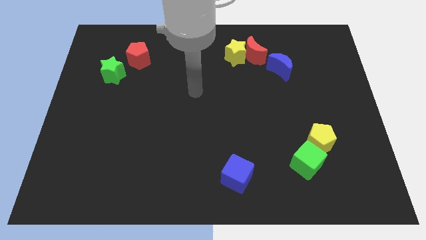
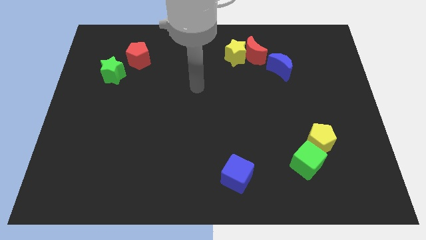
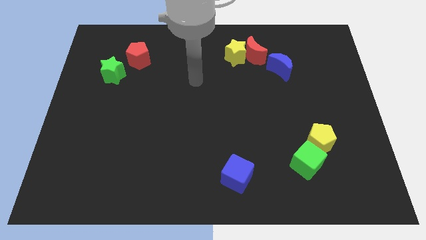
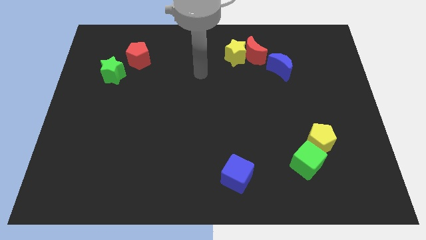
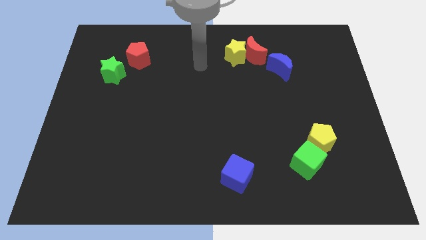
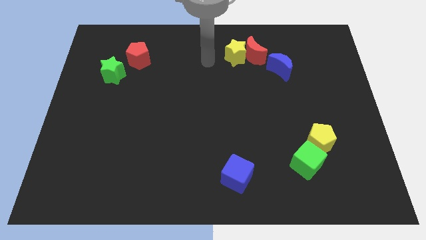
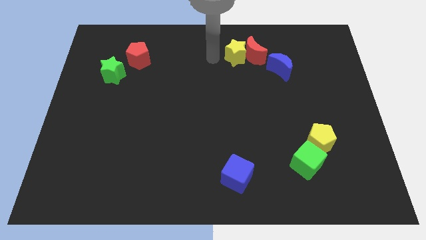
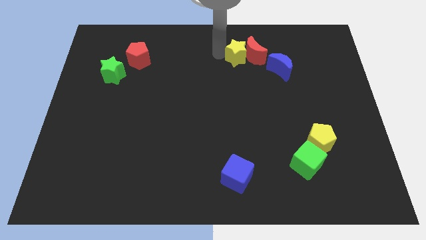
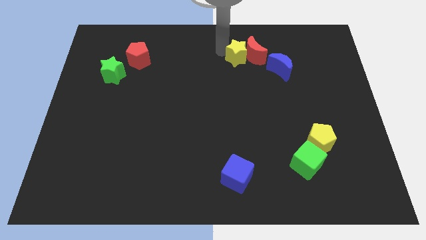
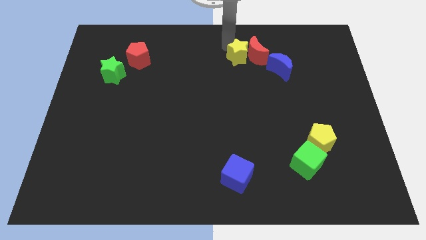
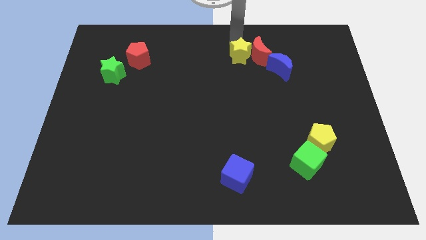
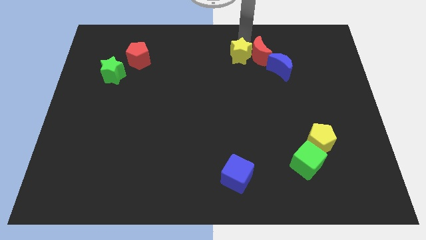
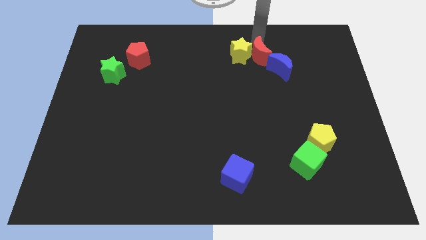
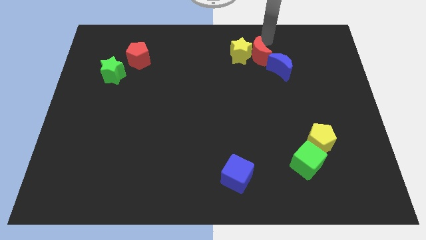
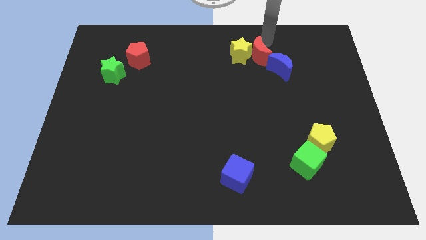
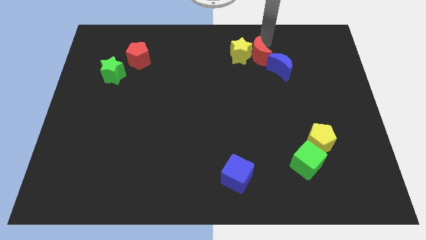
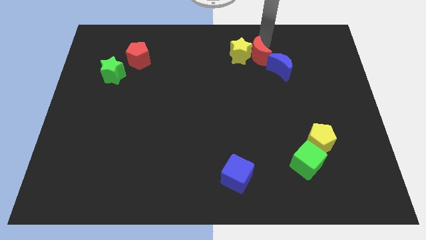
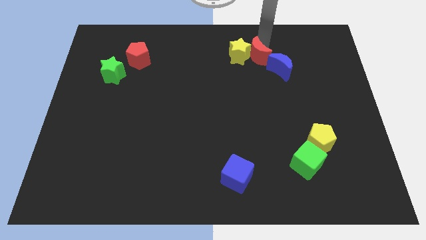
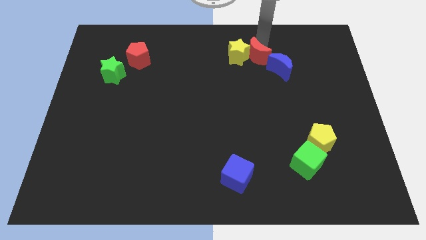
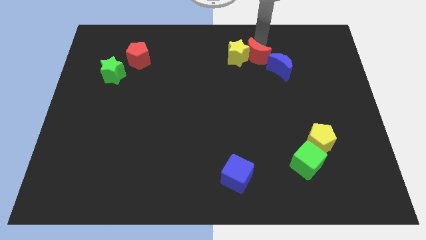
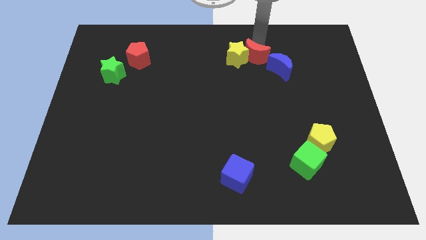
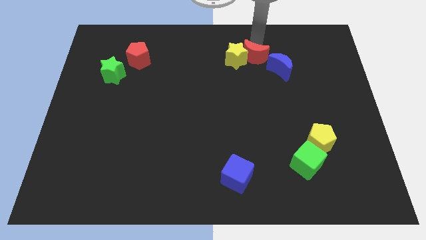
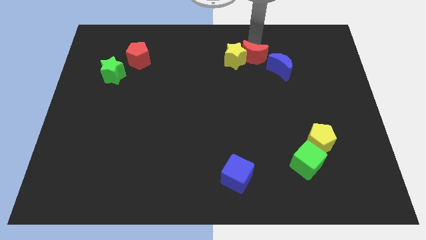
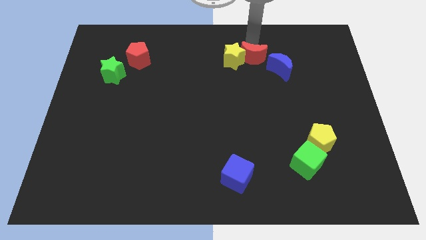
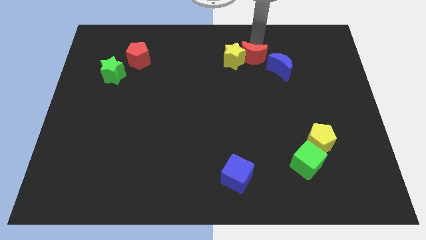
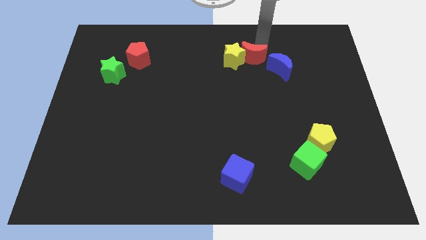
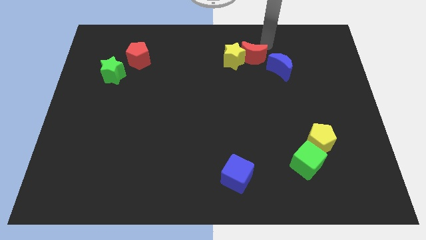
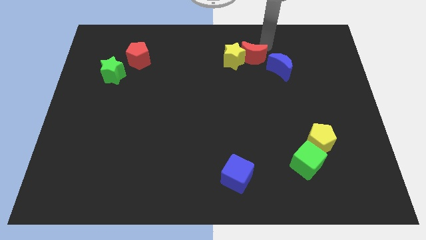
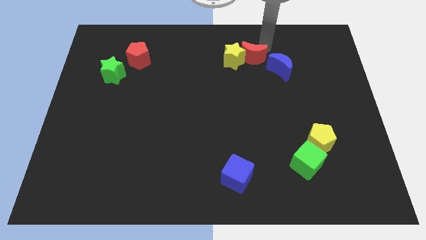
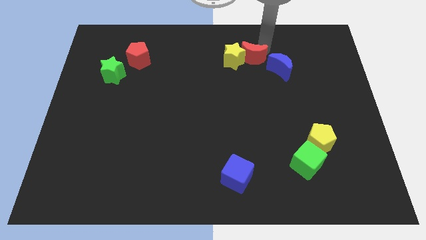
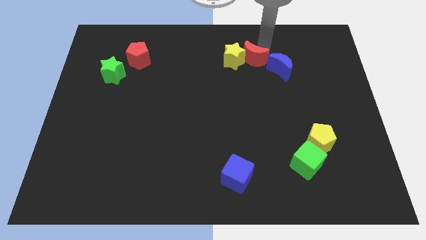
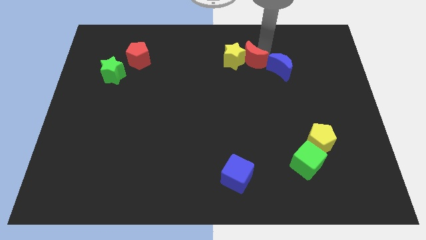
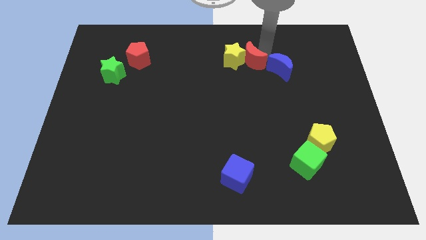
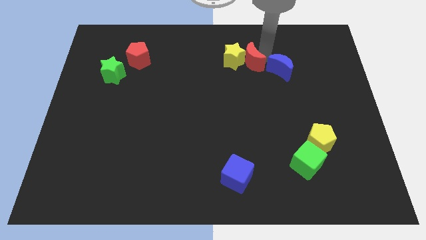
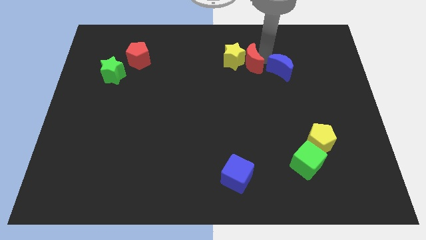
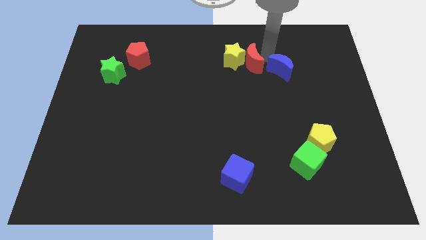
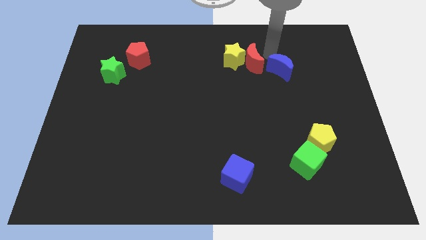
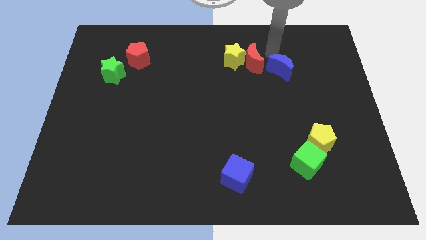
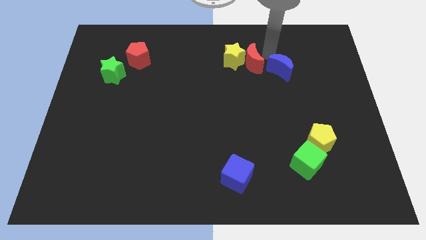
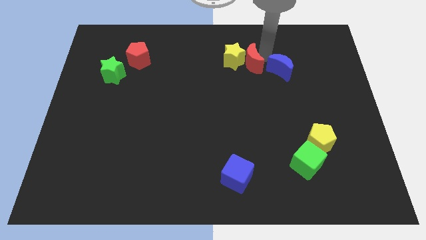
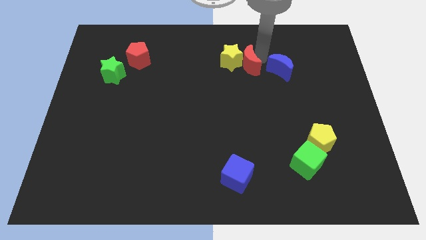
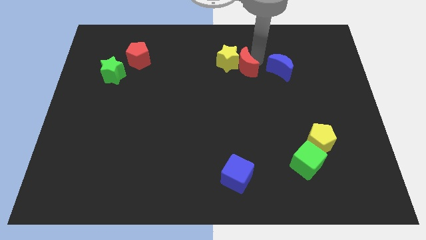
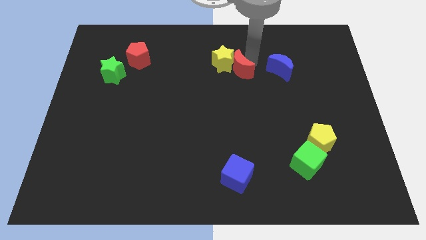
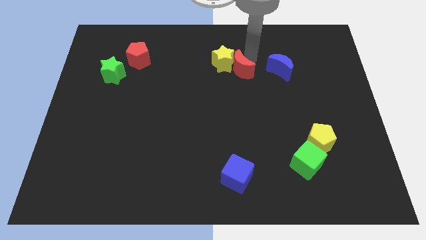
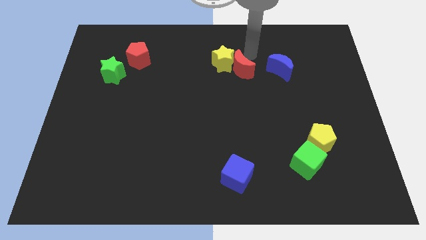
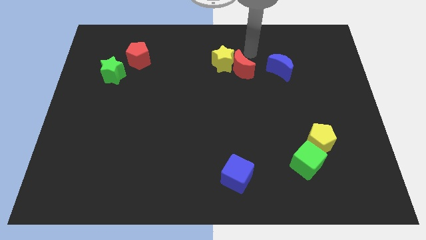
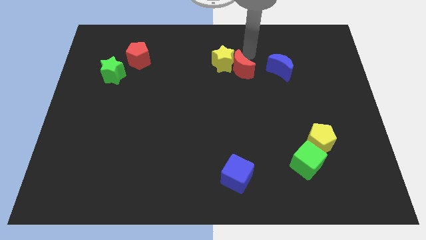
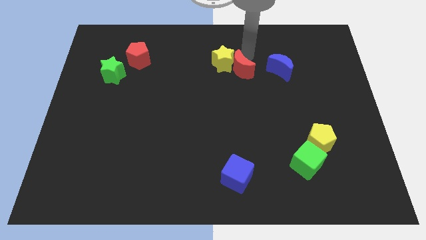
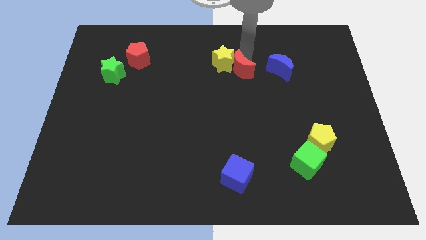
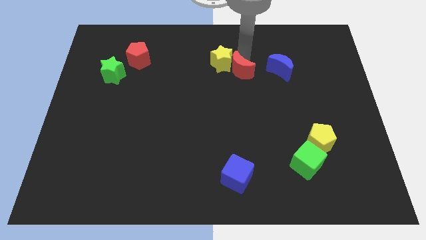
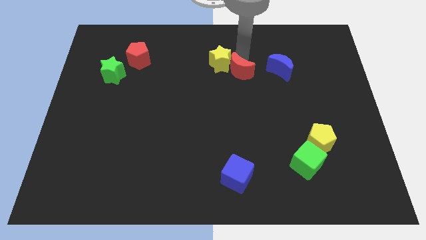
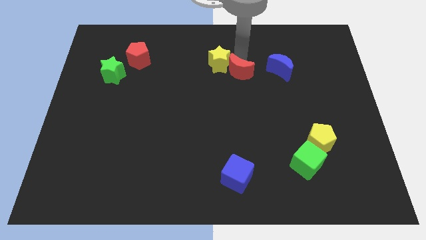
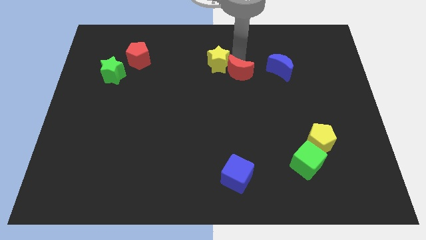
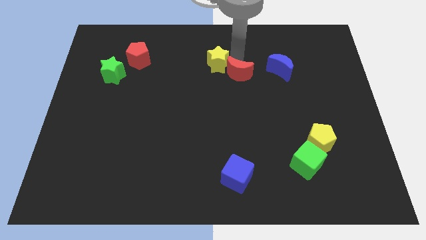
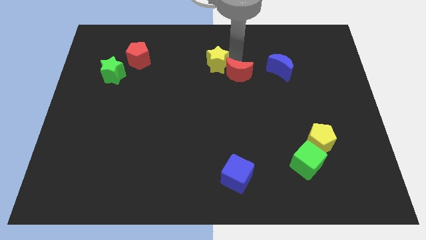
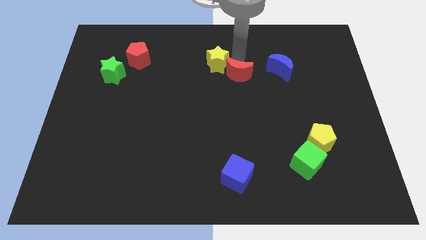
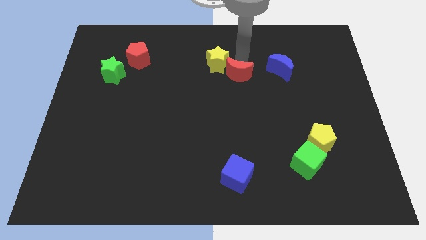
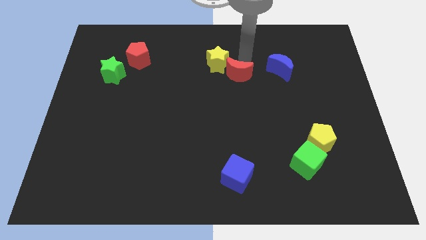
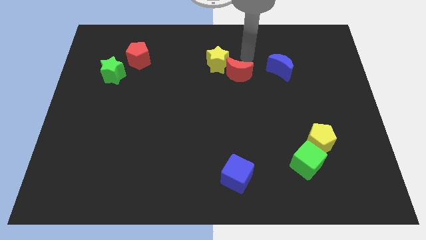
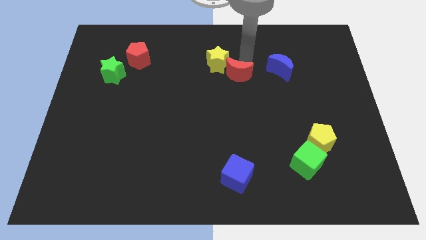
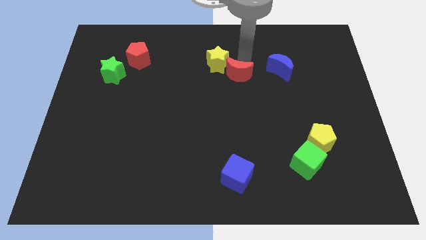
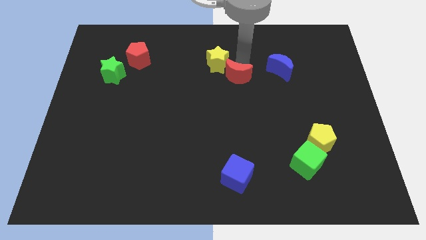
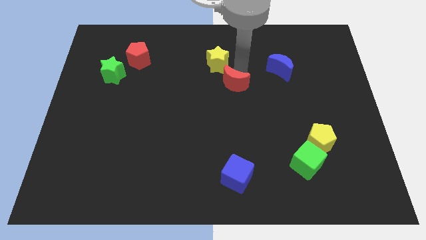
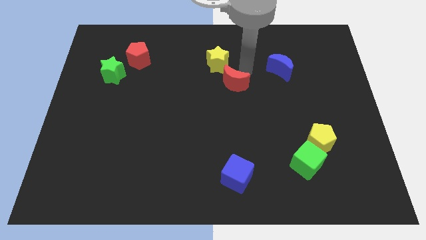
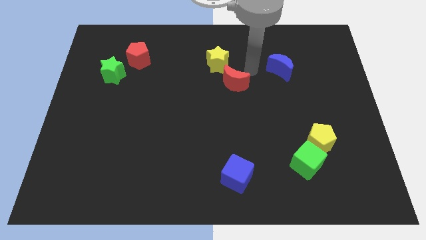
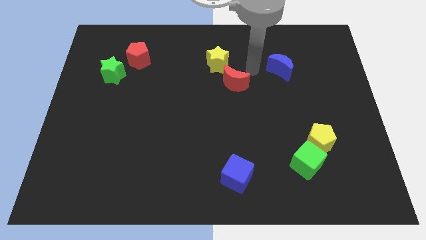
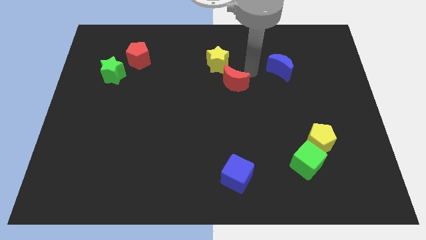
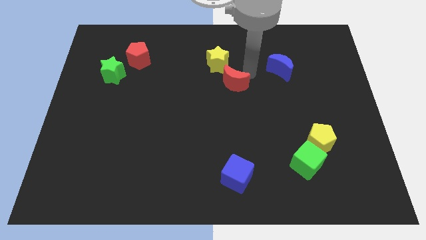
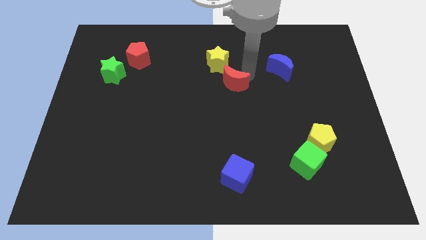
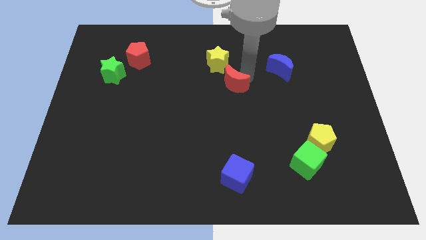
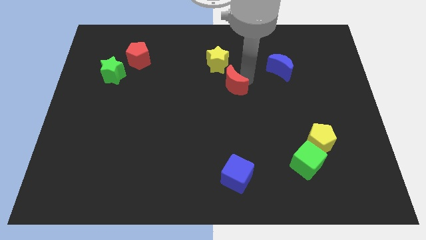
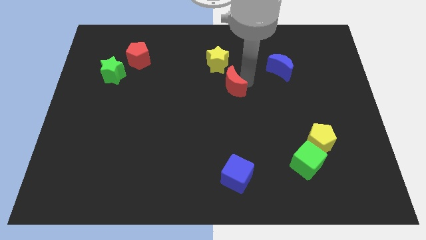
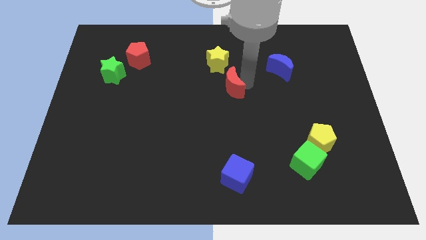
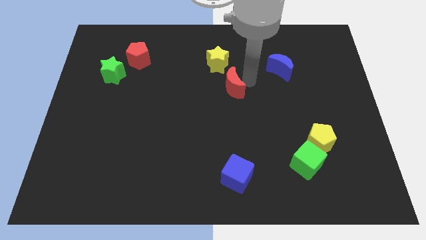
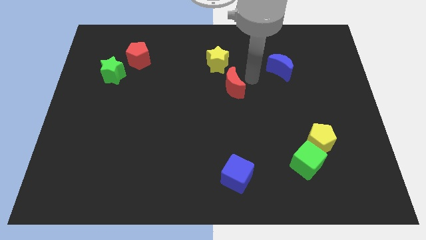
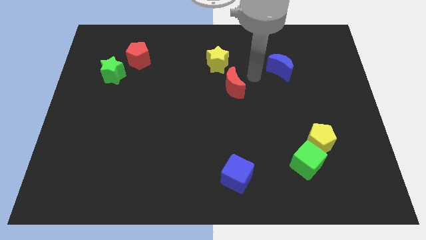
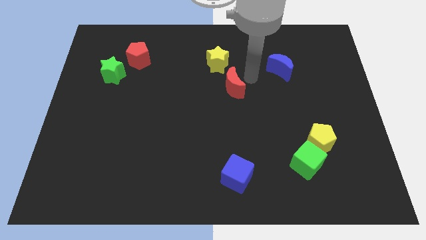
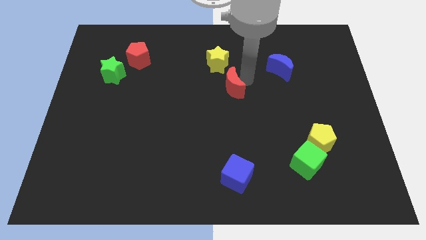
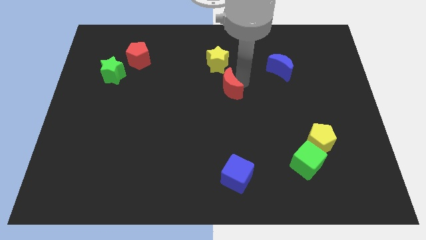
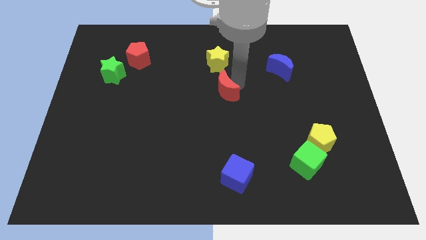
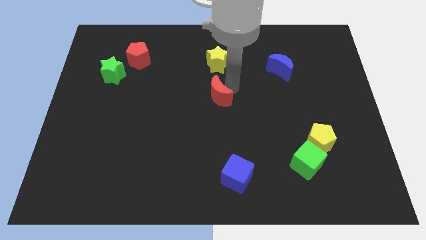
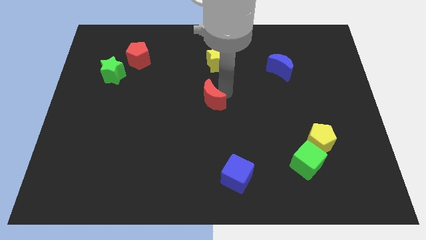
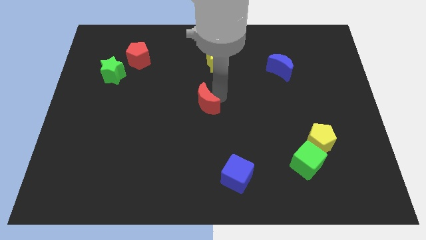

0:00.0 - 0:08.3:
move the red moon downwards and then left
